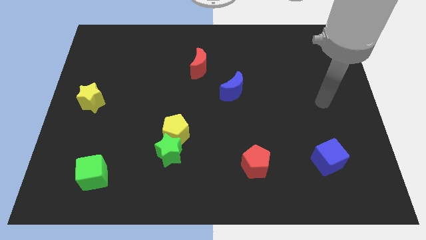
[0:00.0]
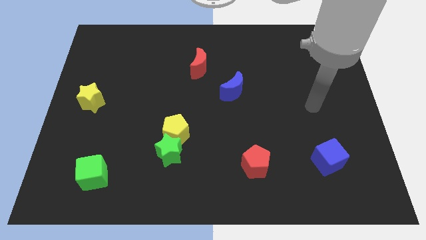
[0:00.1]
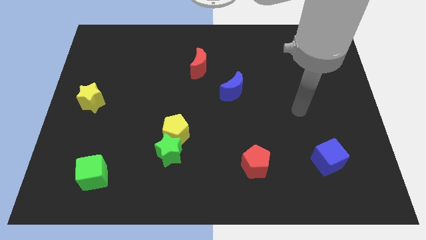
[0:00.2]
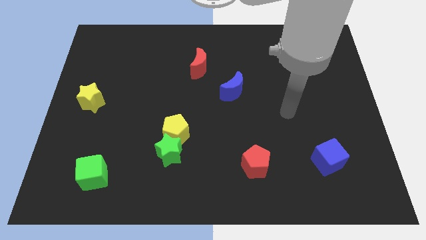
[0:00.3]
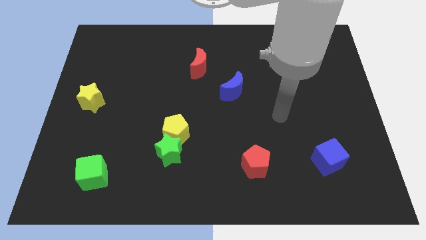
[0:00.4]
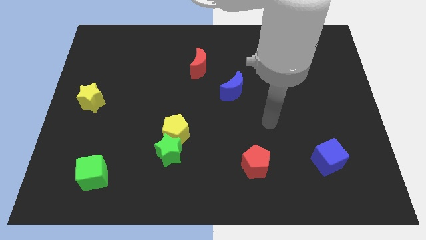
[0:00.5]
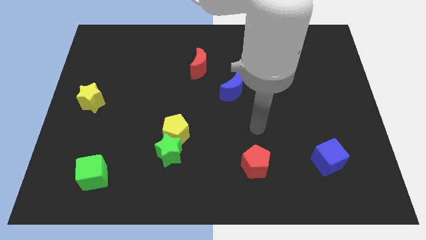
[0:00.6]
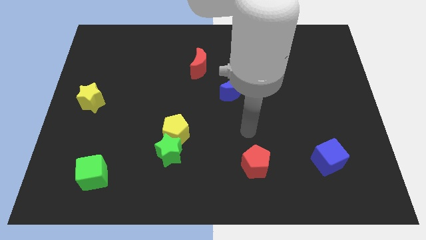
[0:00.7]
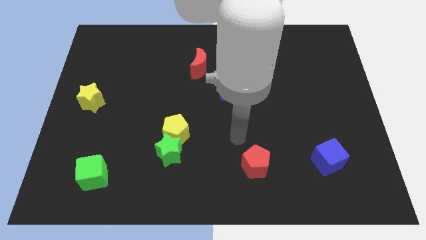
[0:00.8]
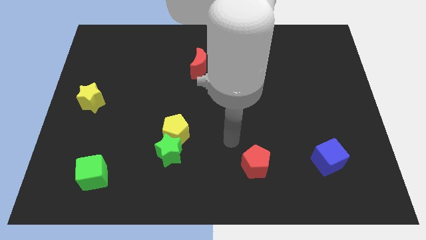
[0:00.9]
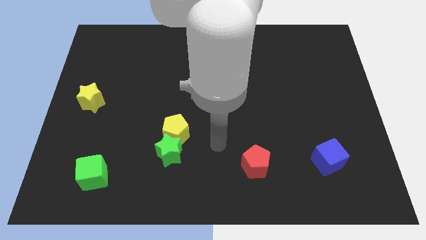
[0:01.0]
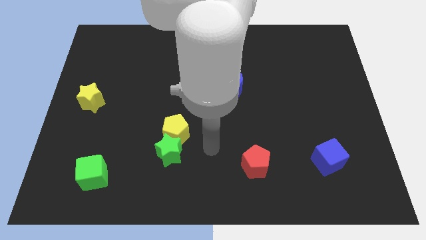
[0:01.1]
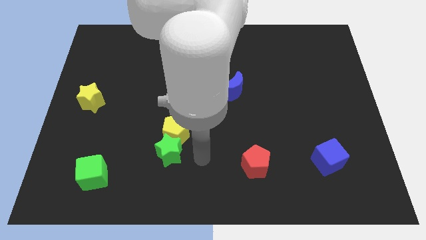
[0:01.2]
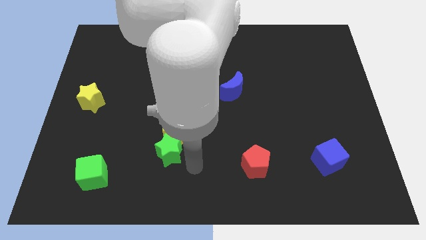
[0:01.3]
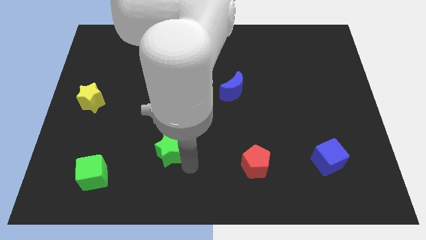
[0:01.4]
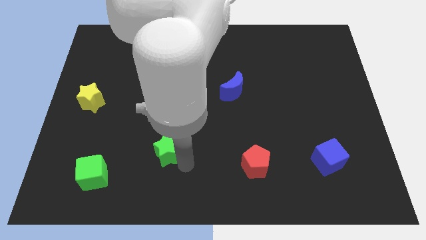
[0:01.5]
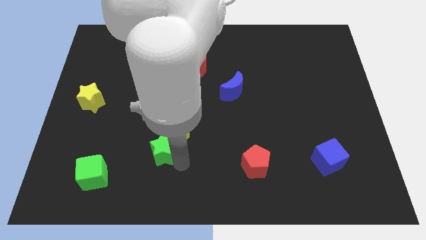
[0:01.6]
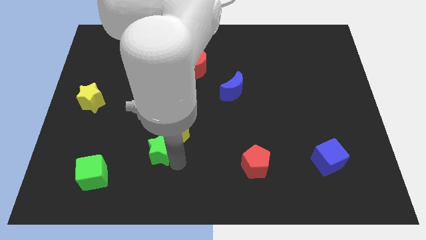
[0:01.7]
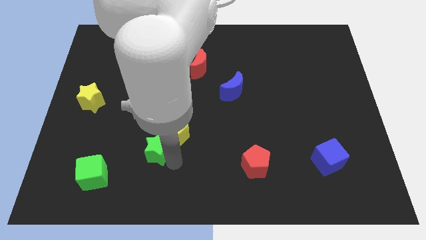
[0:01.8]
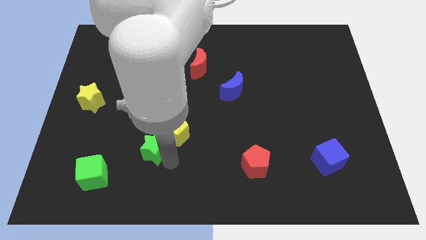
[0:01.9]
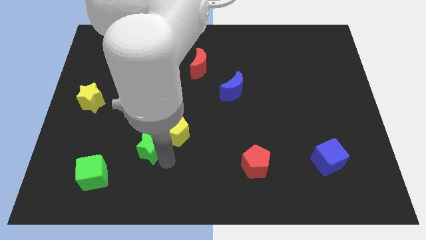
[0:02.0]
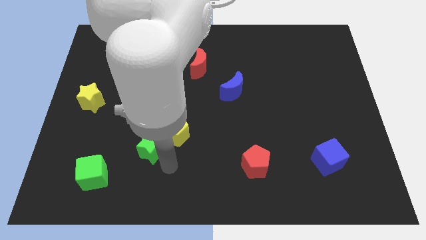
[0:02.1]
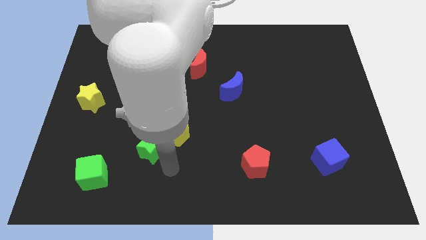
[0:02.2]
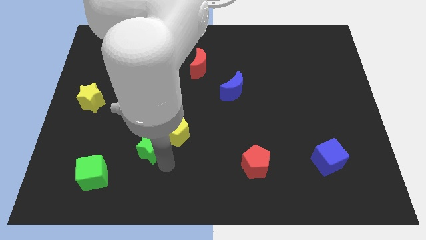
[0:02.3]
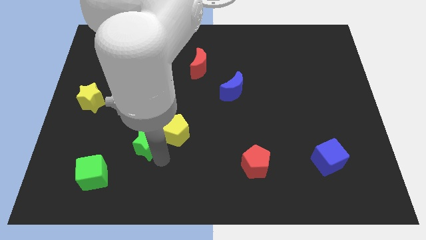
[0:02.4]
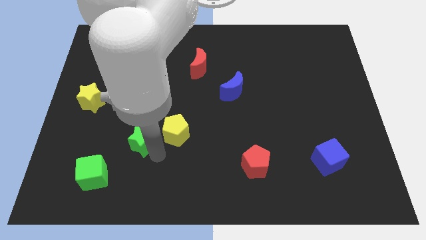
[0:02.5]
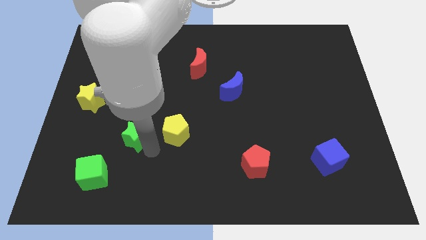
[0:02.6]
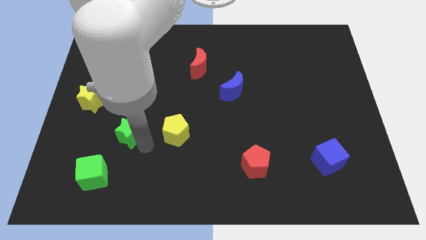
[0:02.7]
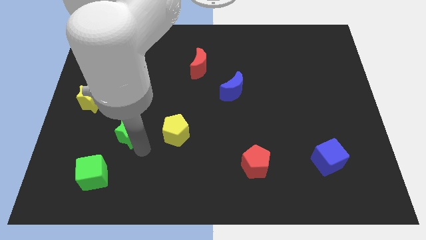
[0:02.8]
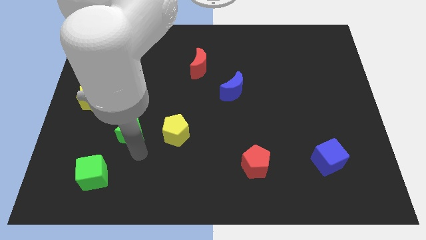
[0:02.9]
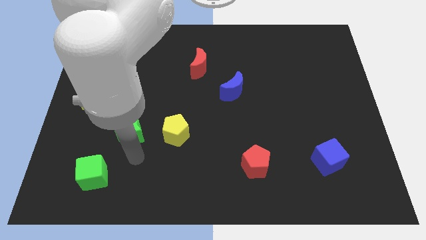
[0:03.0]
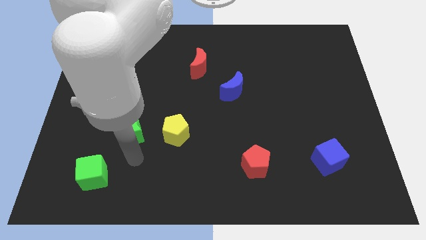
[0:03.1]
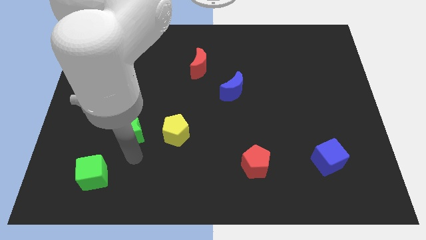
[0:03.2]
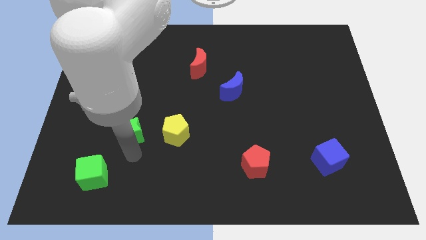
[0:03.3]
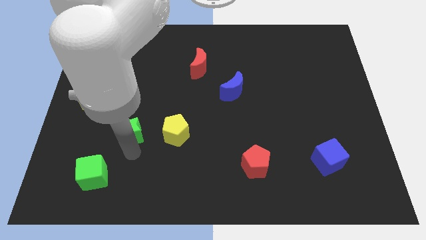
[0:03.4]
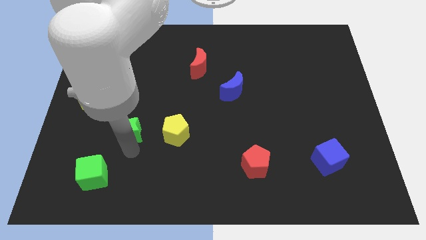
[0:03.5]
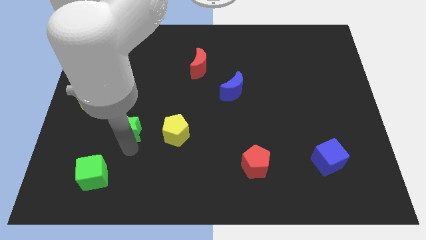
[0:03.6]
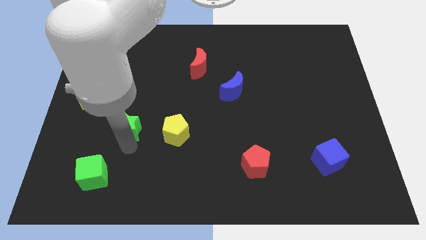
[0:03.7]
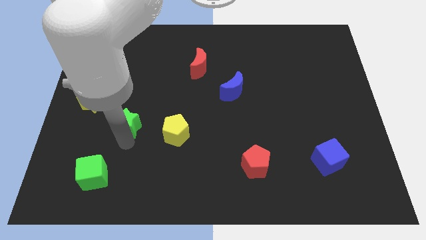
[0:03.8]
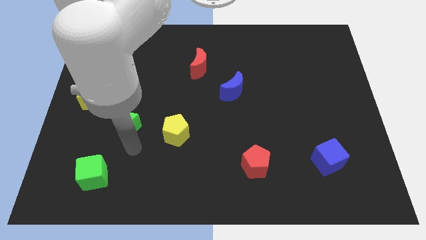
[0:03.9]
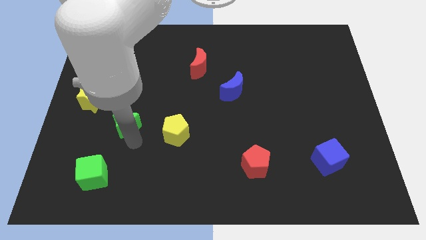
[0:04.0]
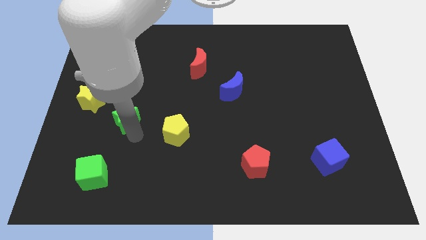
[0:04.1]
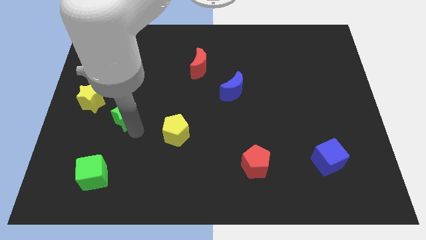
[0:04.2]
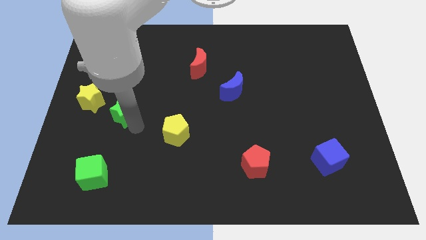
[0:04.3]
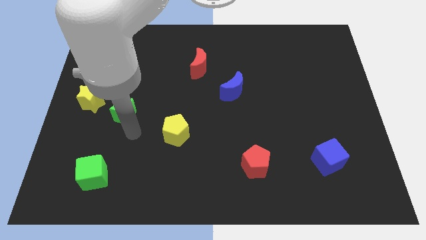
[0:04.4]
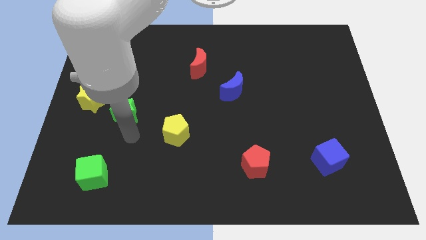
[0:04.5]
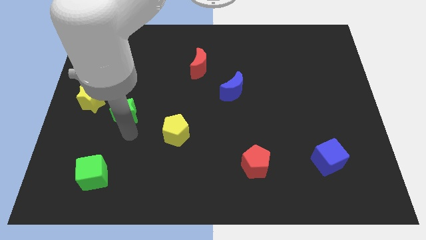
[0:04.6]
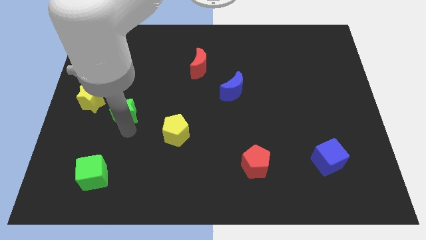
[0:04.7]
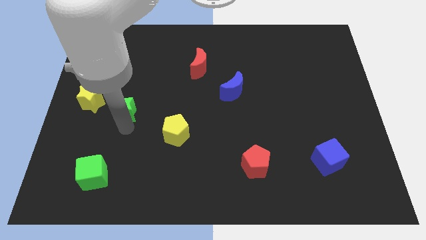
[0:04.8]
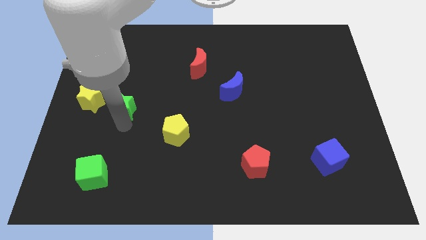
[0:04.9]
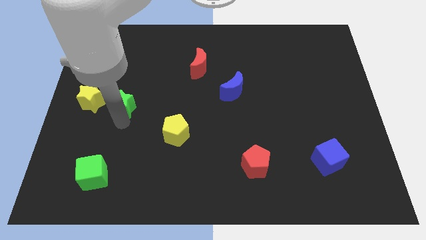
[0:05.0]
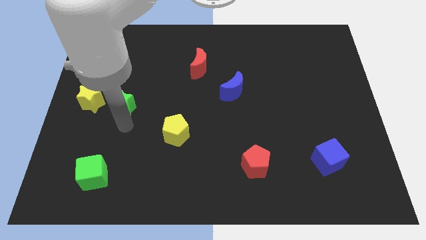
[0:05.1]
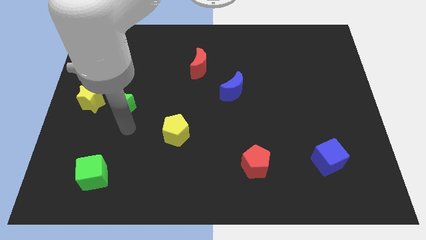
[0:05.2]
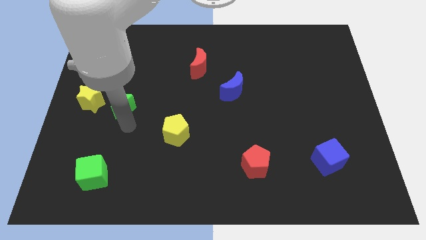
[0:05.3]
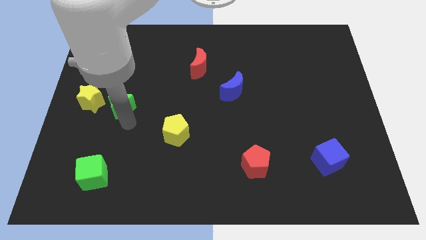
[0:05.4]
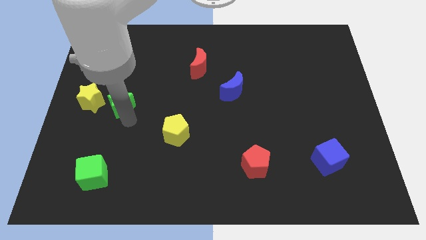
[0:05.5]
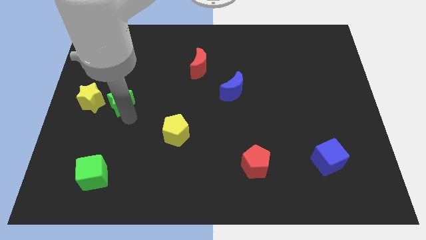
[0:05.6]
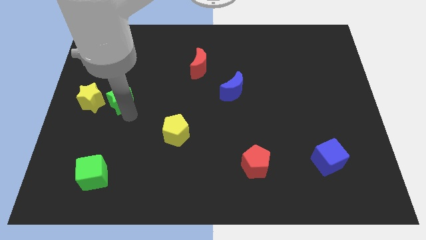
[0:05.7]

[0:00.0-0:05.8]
put the green star diagonally up and to the right of the yellow star
